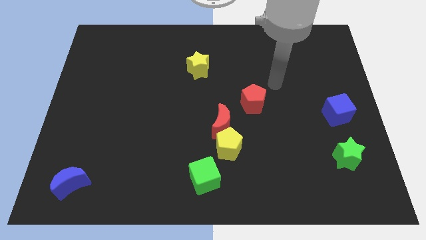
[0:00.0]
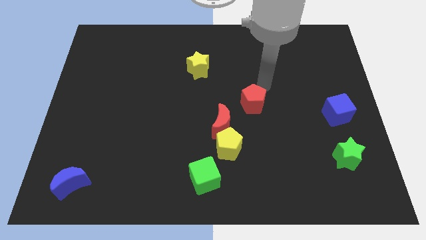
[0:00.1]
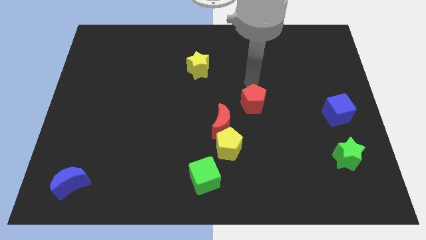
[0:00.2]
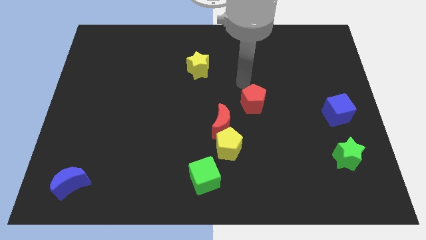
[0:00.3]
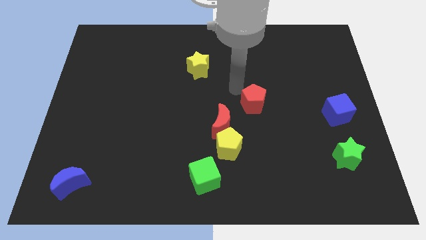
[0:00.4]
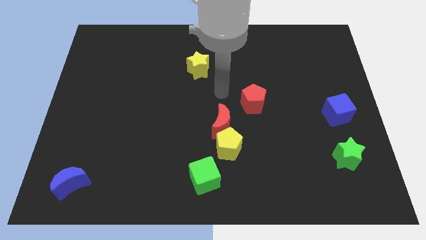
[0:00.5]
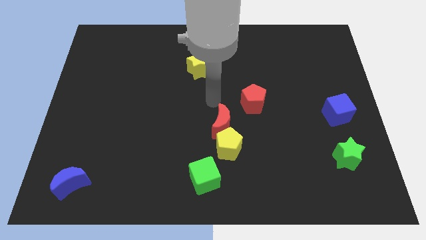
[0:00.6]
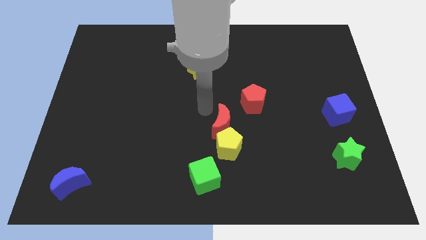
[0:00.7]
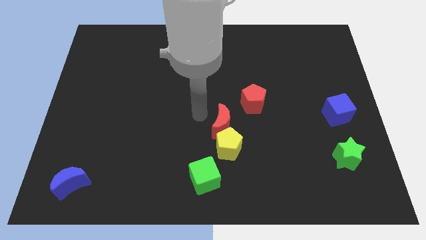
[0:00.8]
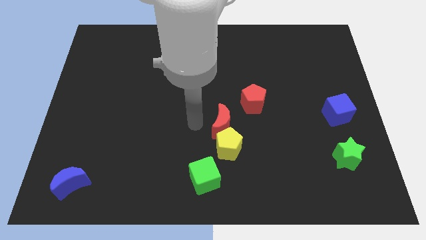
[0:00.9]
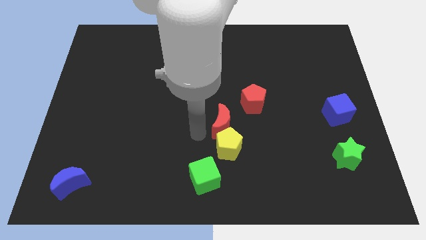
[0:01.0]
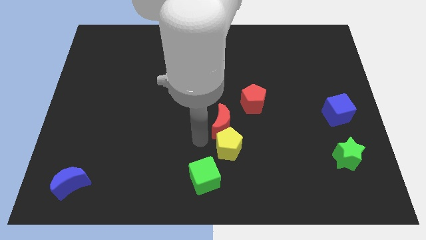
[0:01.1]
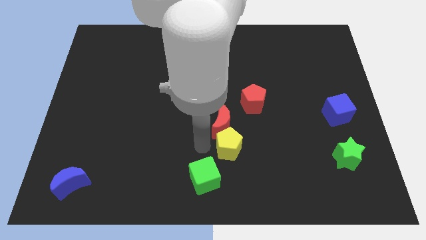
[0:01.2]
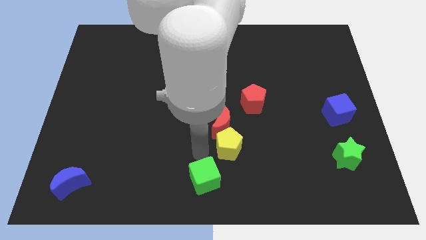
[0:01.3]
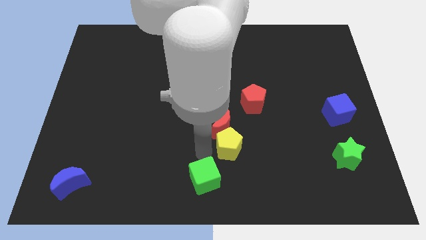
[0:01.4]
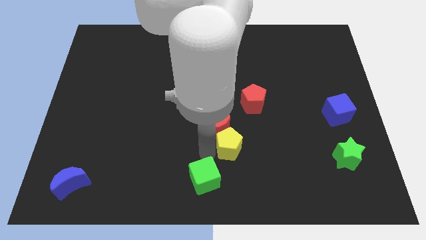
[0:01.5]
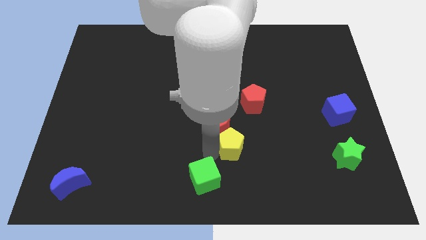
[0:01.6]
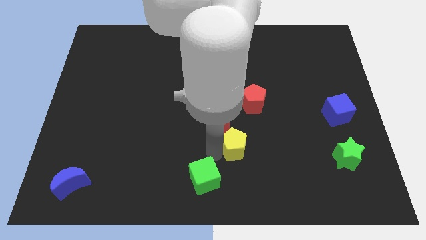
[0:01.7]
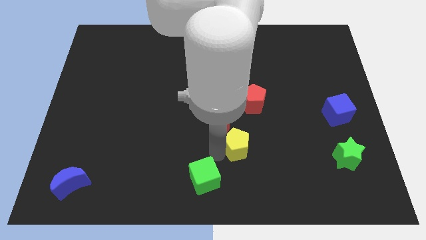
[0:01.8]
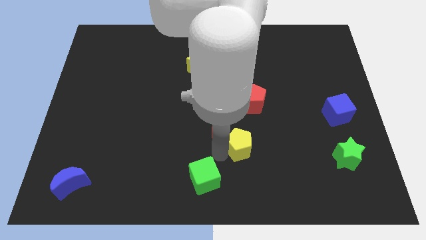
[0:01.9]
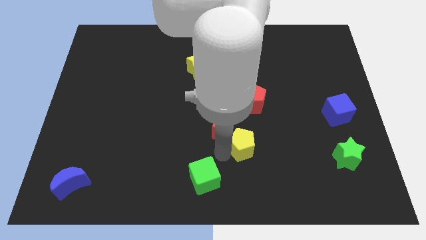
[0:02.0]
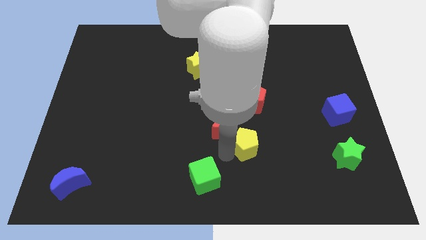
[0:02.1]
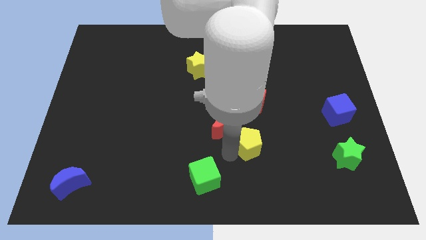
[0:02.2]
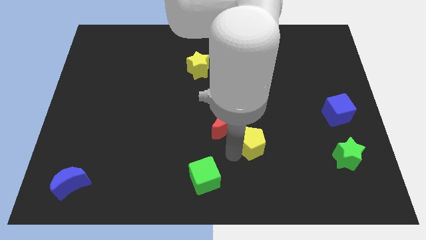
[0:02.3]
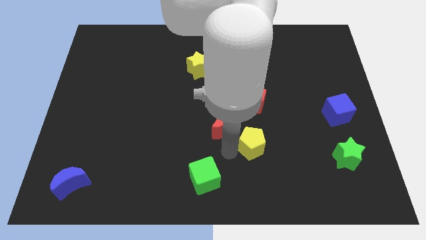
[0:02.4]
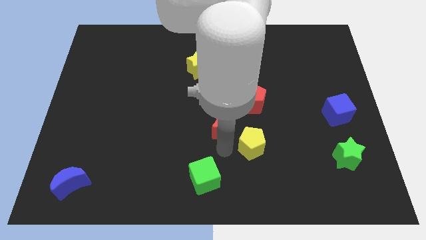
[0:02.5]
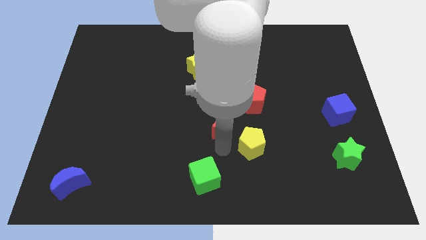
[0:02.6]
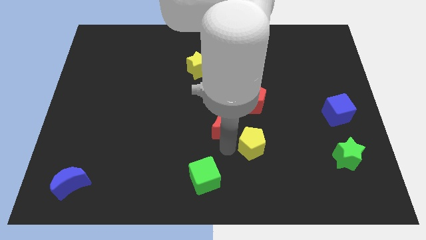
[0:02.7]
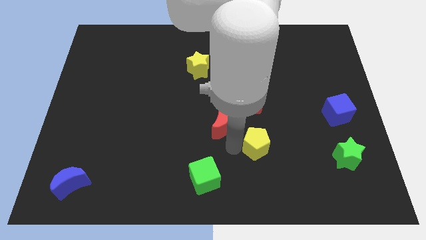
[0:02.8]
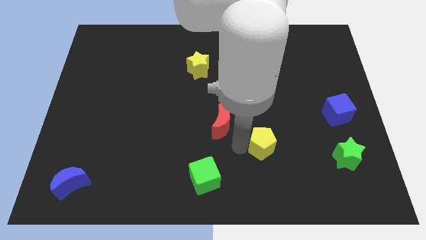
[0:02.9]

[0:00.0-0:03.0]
pull the yellow pentagon apart from the red moon and green cube

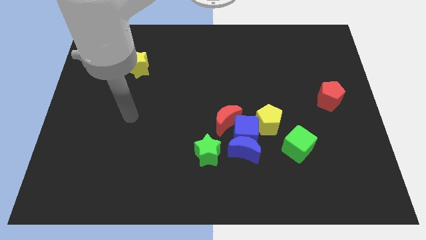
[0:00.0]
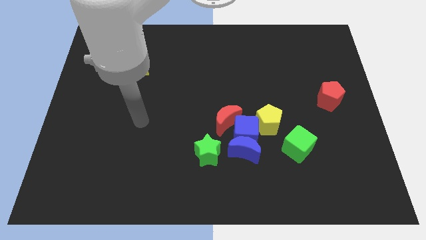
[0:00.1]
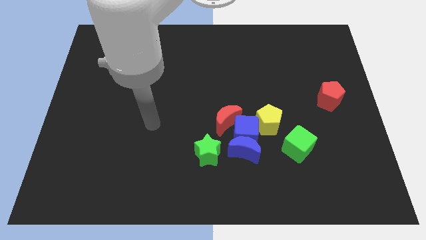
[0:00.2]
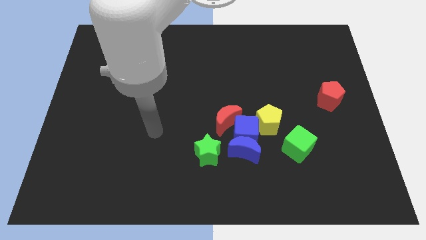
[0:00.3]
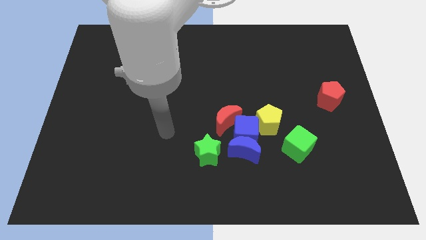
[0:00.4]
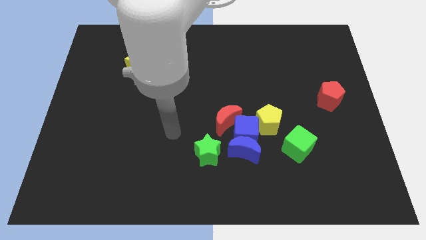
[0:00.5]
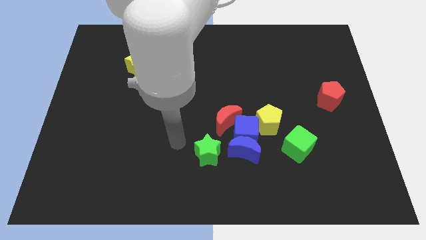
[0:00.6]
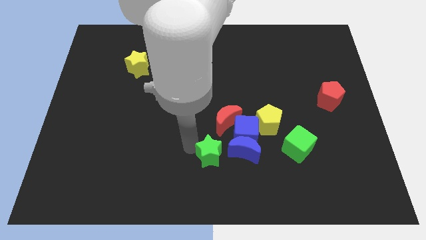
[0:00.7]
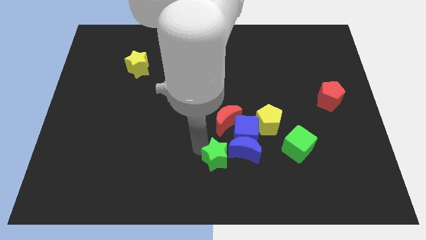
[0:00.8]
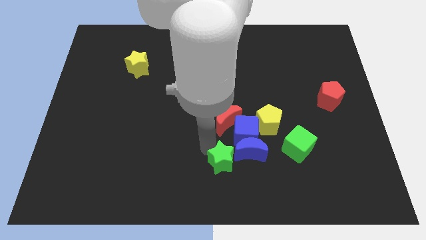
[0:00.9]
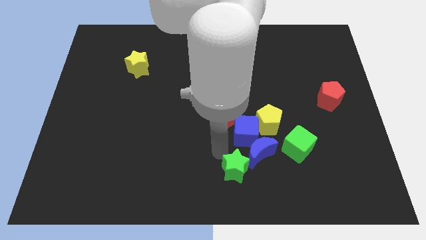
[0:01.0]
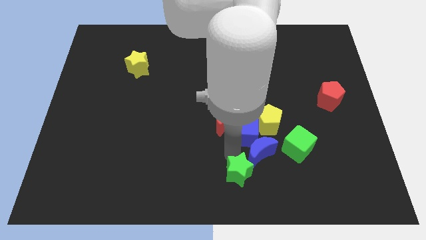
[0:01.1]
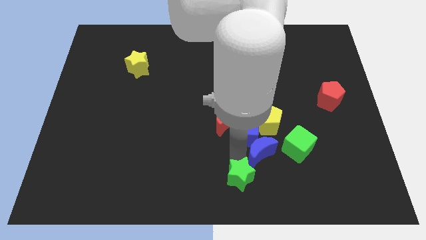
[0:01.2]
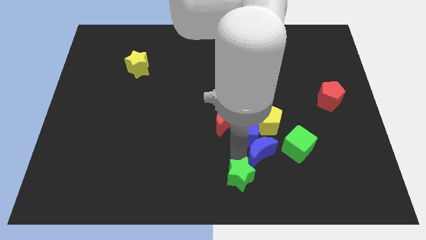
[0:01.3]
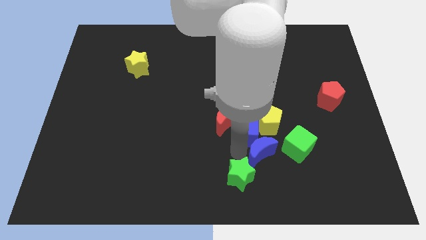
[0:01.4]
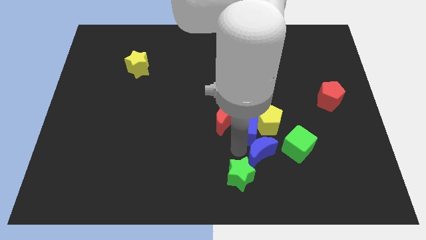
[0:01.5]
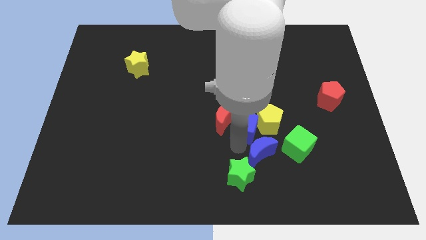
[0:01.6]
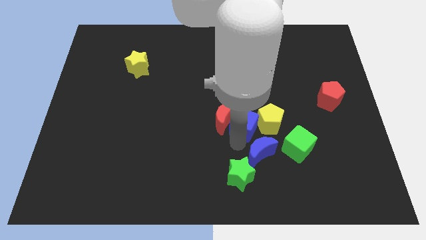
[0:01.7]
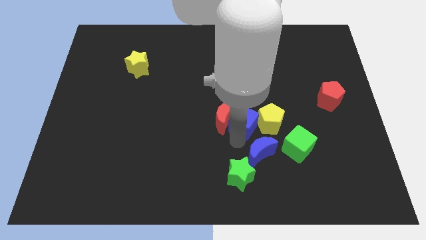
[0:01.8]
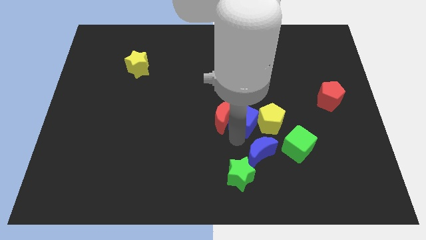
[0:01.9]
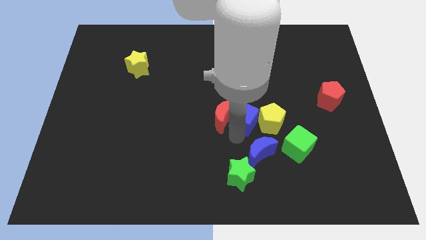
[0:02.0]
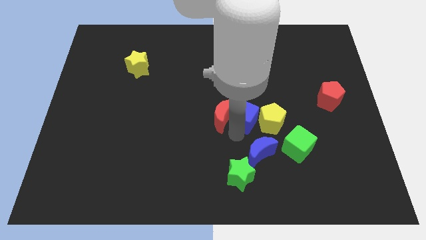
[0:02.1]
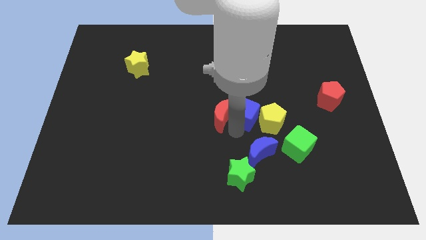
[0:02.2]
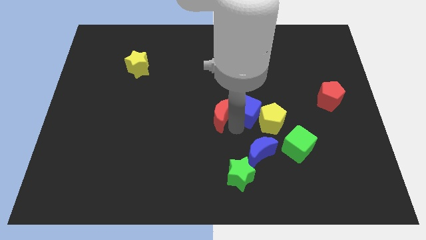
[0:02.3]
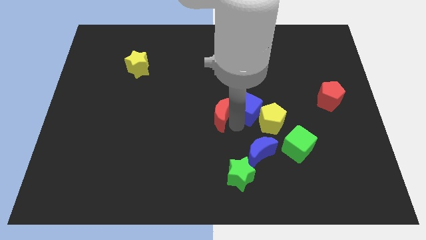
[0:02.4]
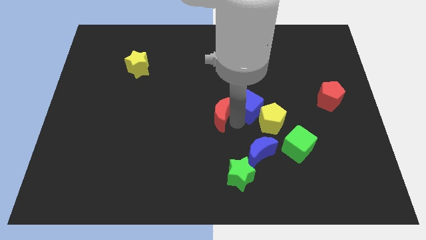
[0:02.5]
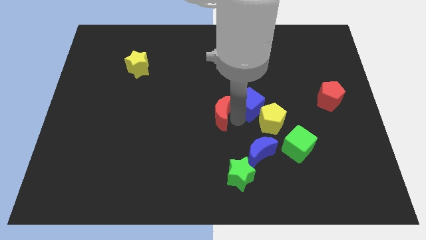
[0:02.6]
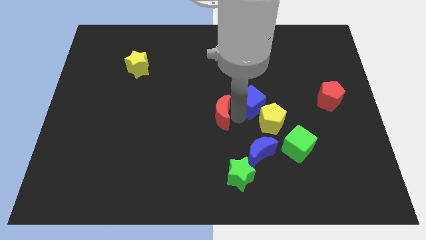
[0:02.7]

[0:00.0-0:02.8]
move the blue cube away from the clump

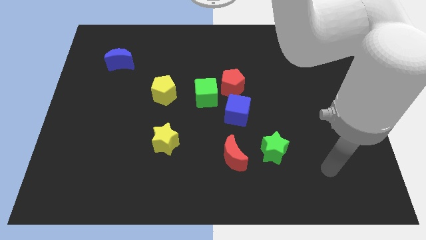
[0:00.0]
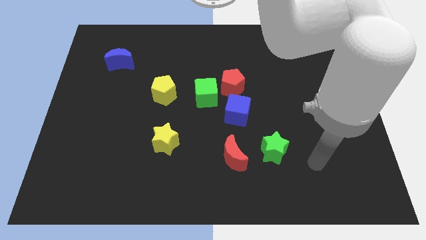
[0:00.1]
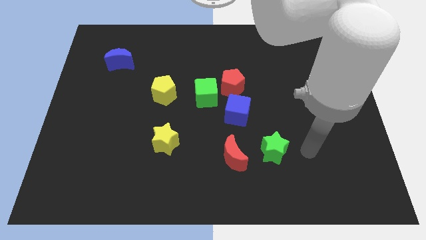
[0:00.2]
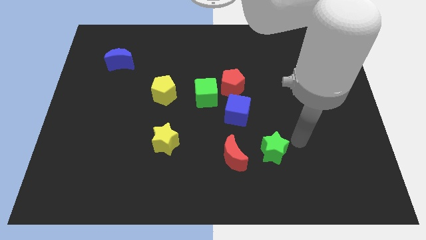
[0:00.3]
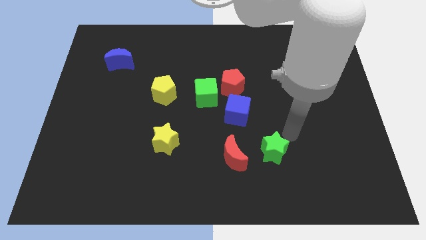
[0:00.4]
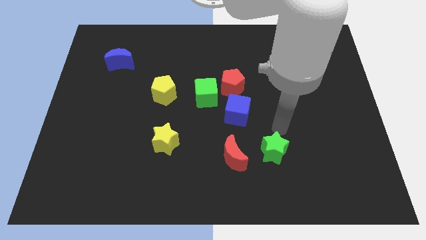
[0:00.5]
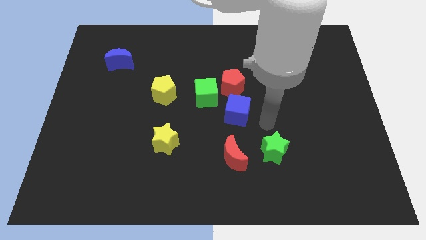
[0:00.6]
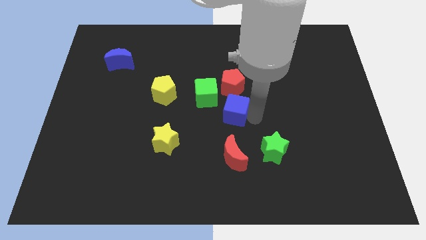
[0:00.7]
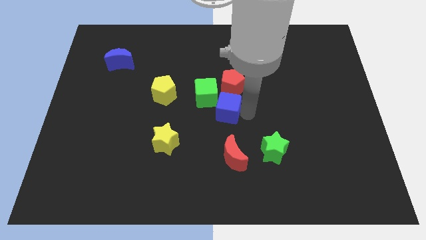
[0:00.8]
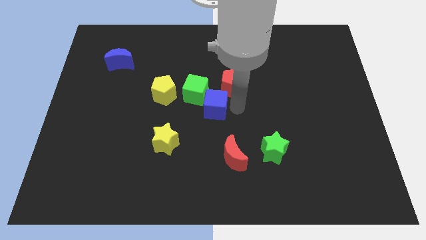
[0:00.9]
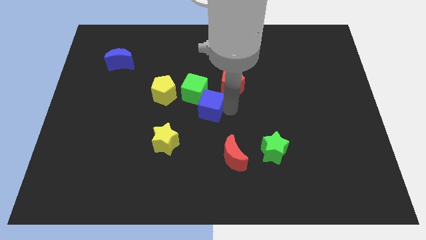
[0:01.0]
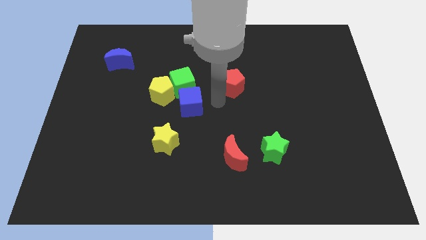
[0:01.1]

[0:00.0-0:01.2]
separate the red pentagon from the green cube and blue cube

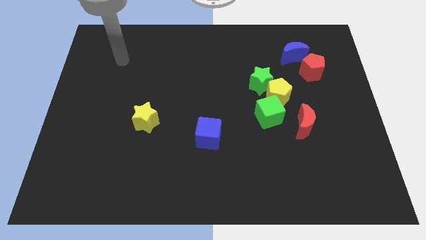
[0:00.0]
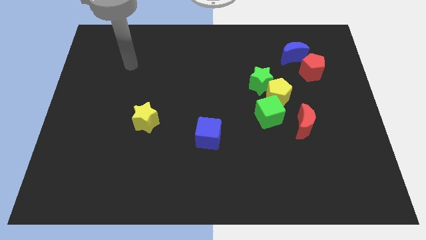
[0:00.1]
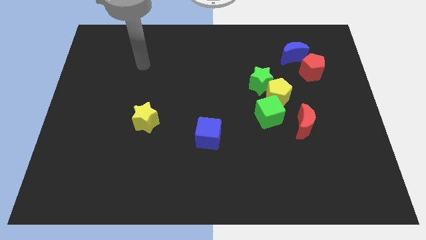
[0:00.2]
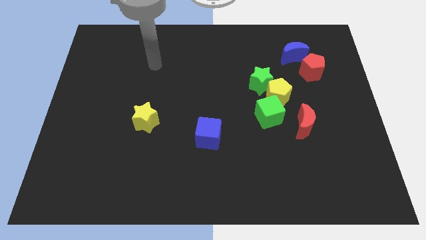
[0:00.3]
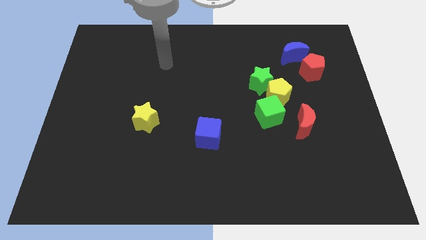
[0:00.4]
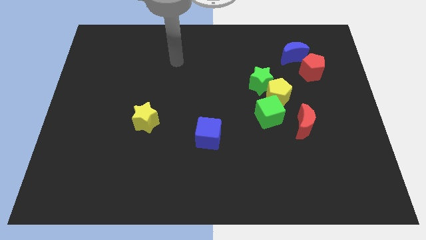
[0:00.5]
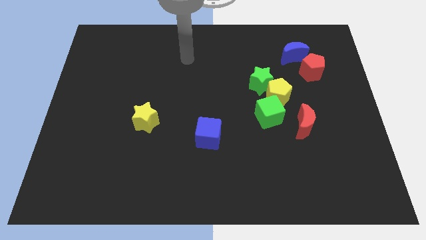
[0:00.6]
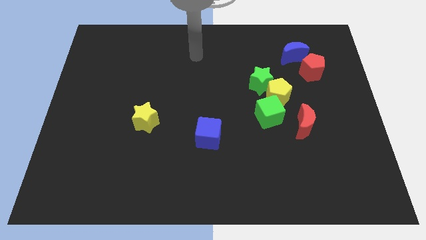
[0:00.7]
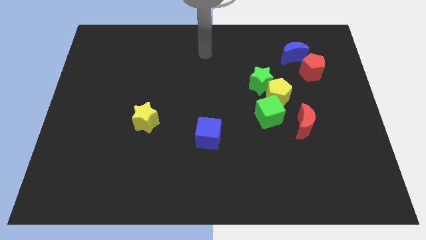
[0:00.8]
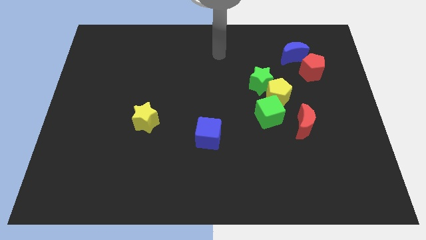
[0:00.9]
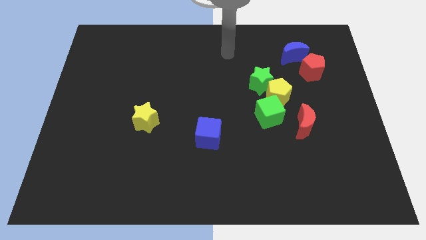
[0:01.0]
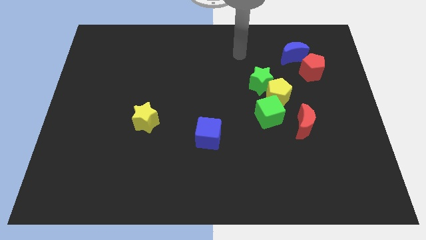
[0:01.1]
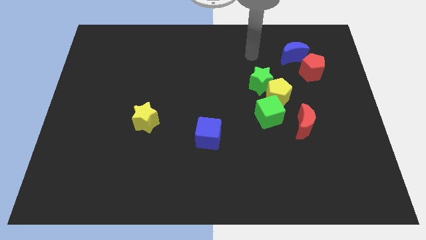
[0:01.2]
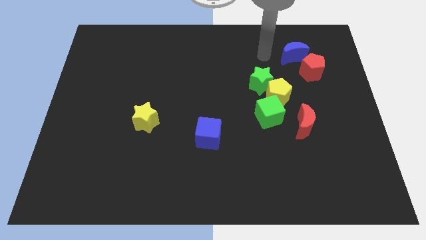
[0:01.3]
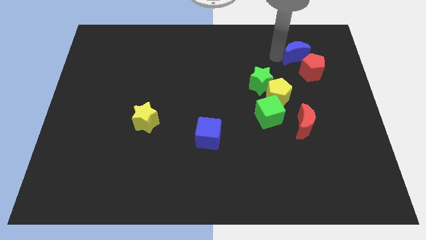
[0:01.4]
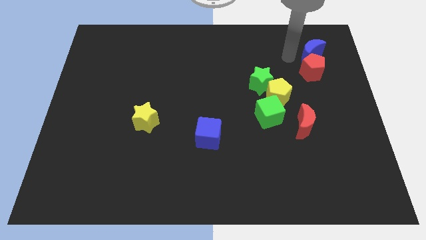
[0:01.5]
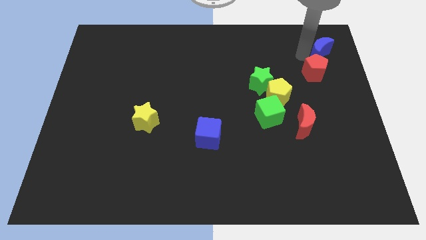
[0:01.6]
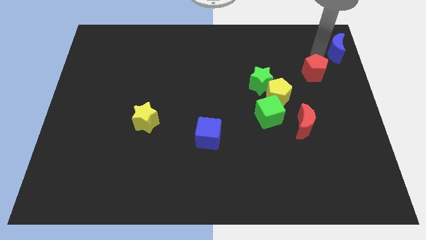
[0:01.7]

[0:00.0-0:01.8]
pull the red pentagon apart from the blue moon

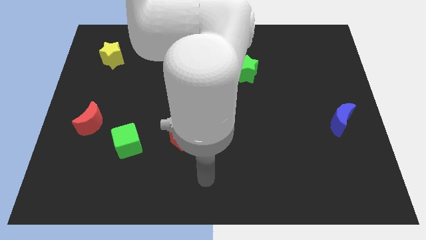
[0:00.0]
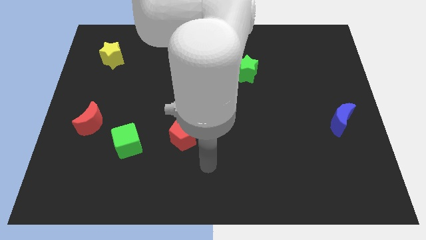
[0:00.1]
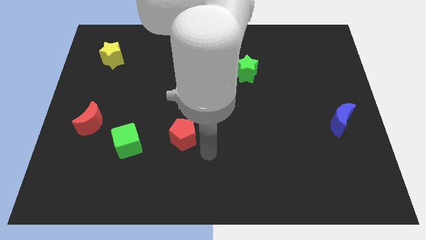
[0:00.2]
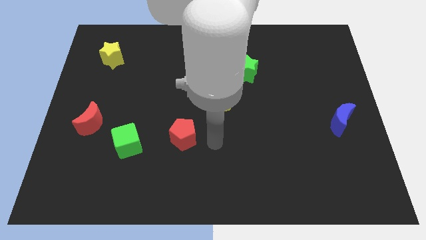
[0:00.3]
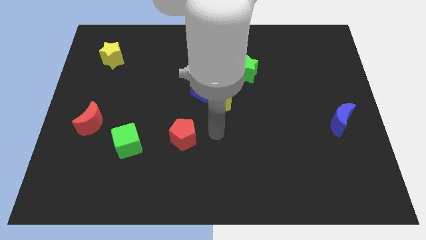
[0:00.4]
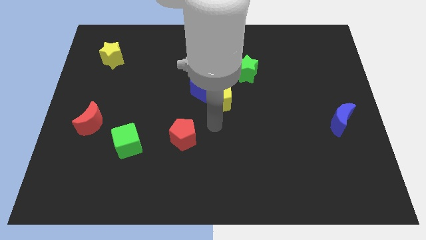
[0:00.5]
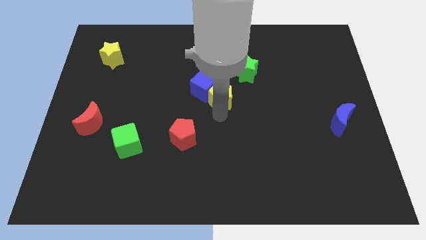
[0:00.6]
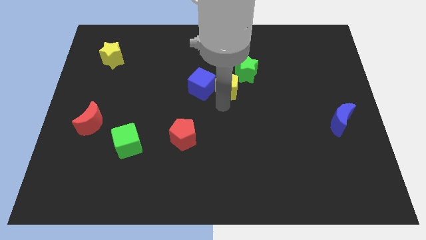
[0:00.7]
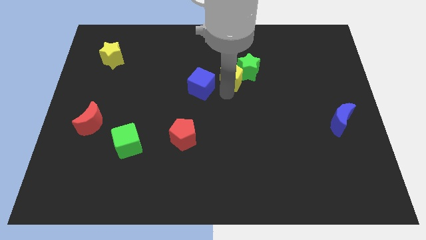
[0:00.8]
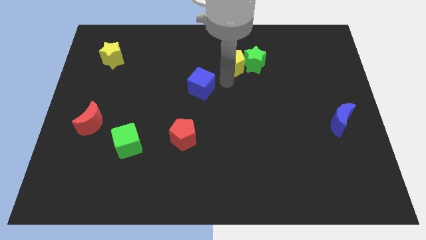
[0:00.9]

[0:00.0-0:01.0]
separate the blue cube from the yellow pentagon
